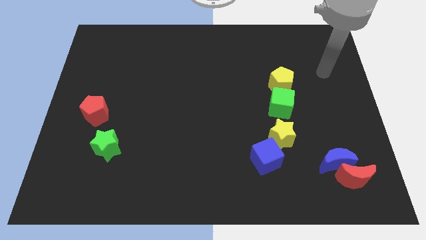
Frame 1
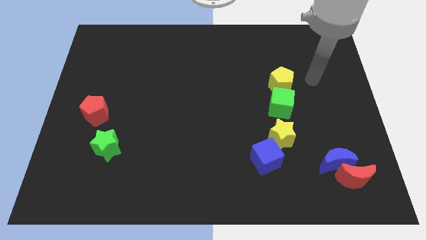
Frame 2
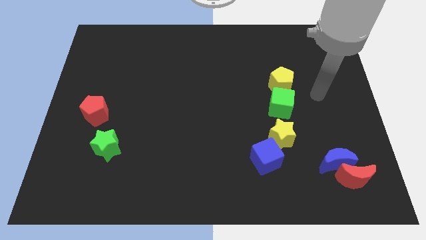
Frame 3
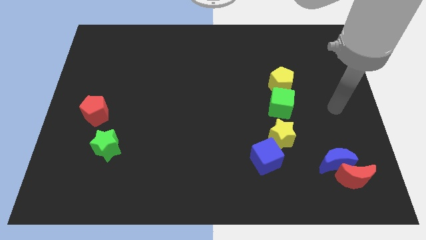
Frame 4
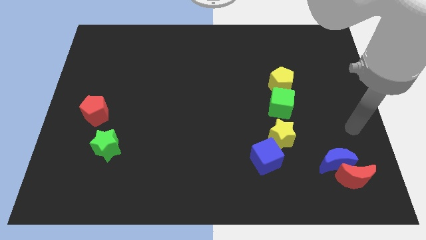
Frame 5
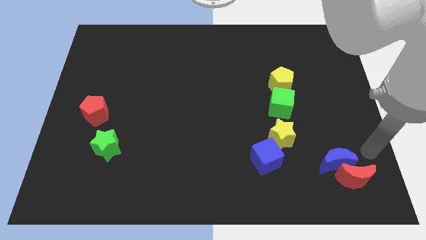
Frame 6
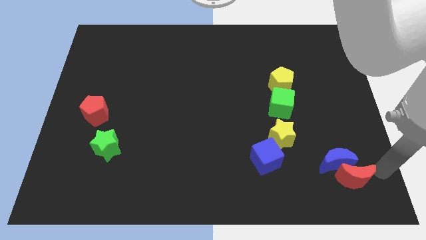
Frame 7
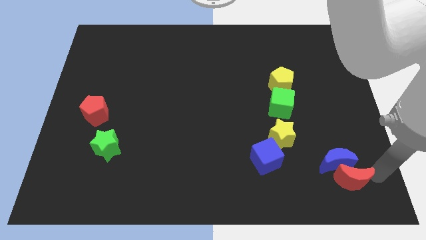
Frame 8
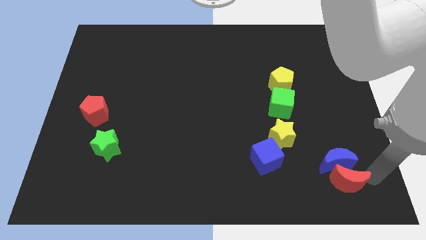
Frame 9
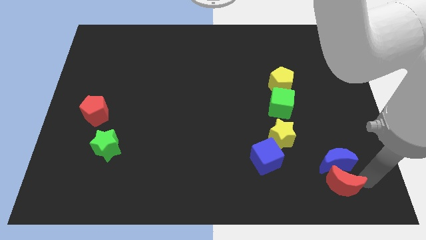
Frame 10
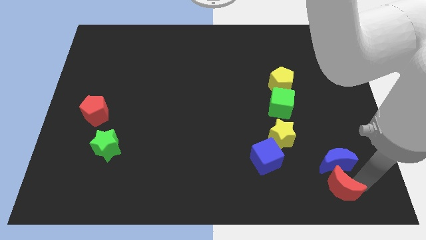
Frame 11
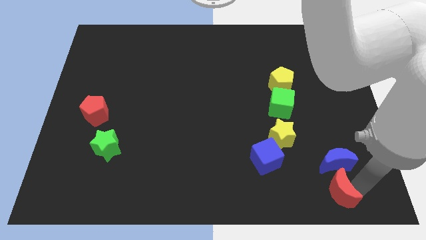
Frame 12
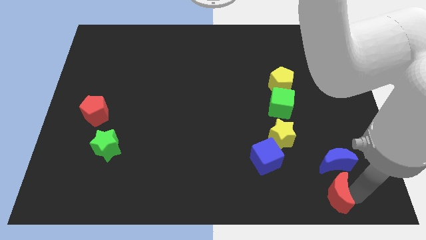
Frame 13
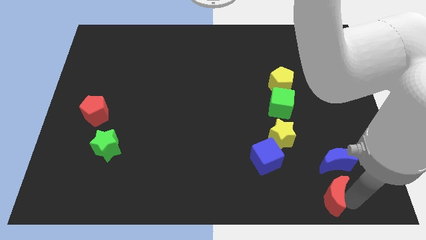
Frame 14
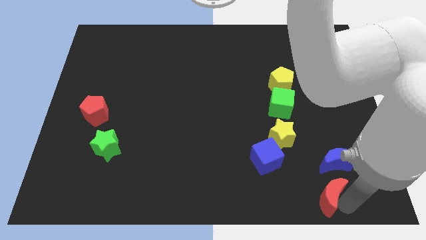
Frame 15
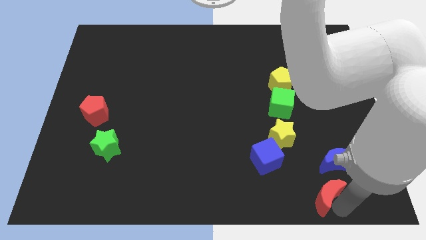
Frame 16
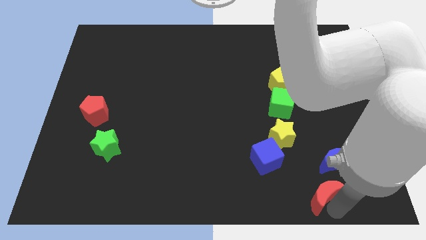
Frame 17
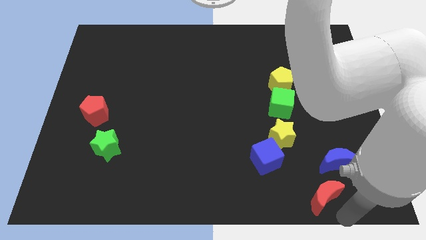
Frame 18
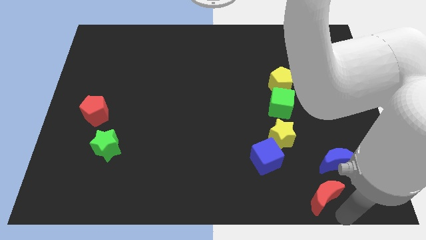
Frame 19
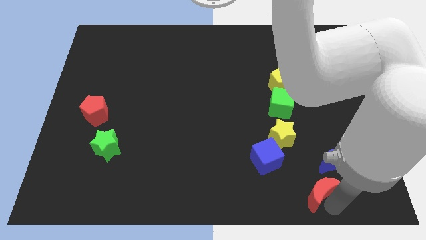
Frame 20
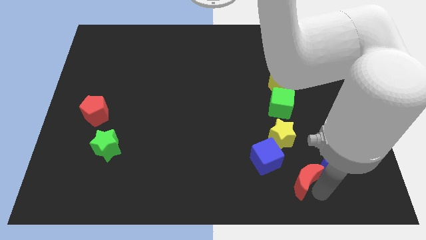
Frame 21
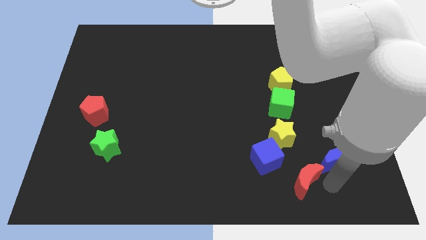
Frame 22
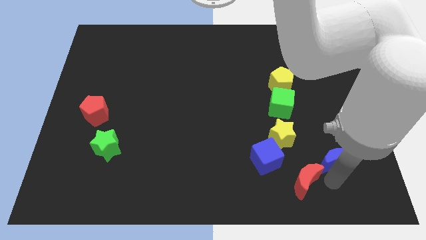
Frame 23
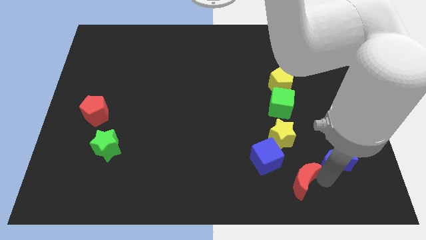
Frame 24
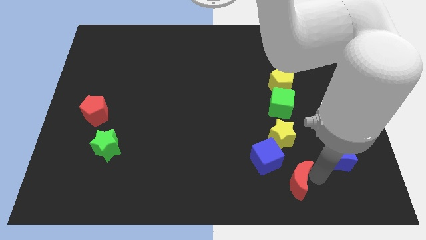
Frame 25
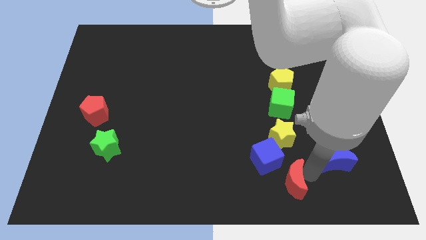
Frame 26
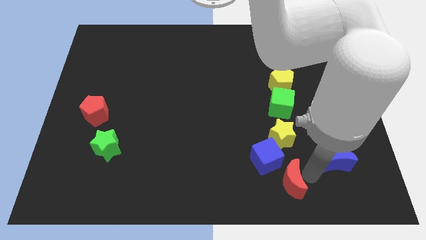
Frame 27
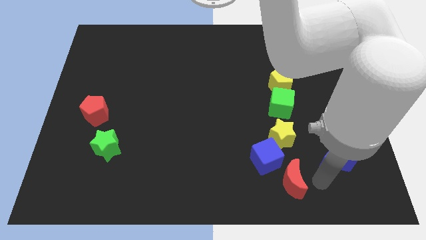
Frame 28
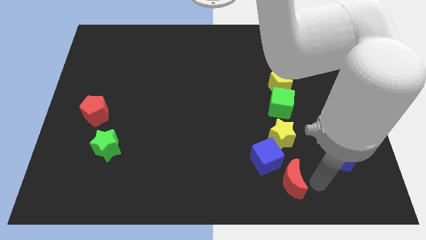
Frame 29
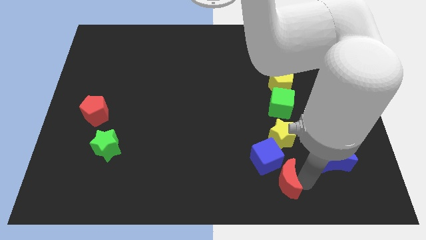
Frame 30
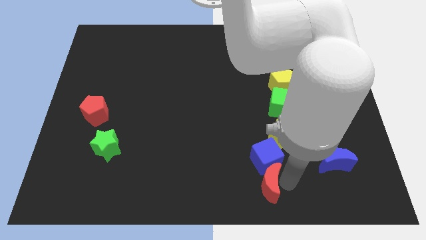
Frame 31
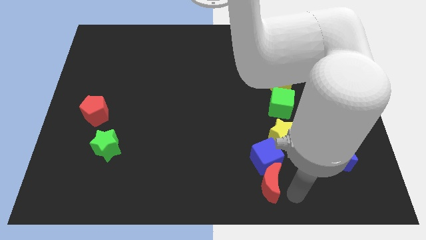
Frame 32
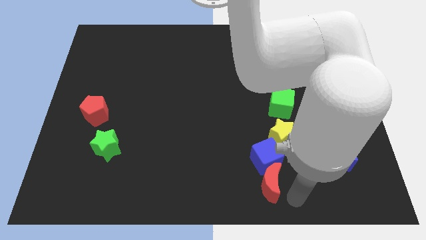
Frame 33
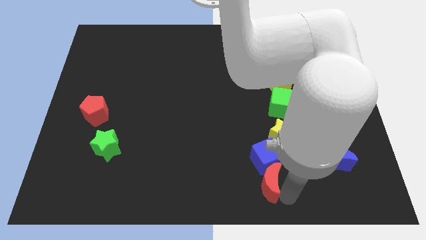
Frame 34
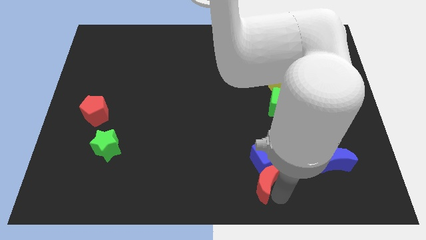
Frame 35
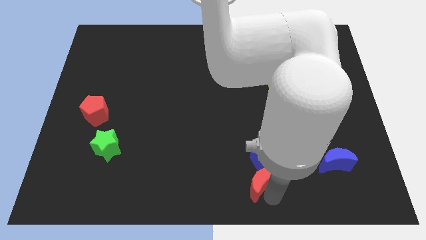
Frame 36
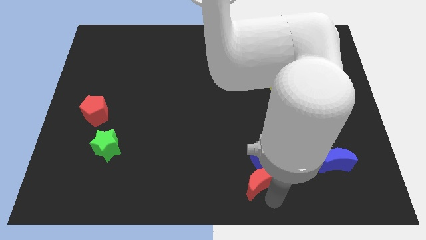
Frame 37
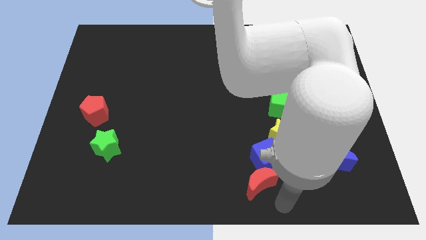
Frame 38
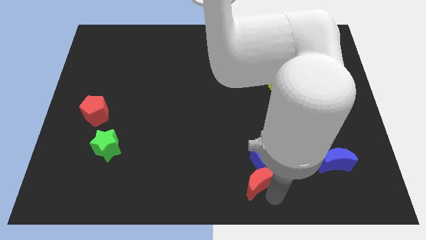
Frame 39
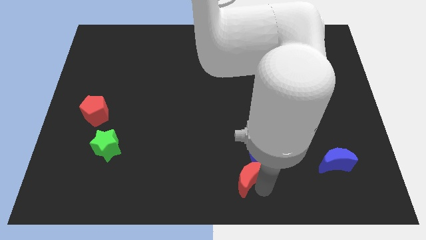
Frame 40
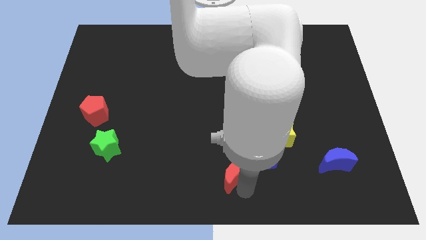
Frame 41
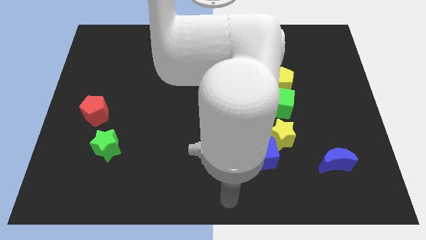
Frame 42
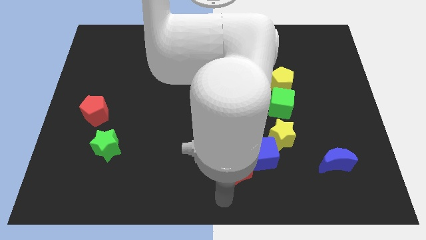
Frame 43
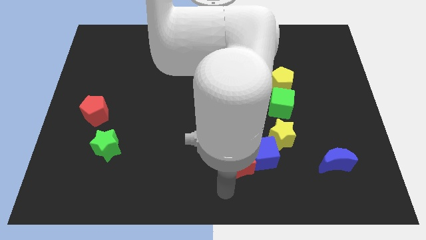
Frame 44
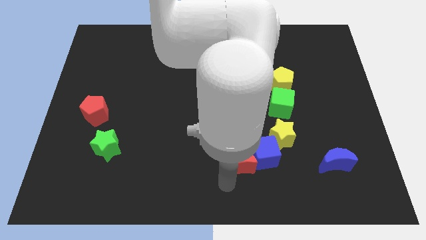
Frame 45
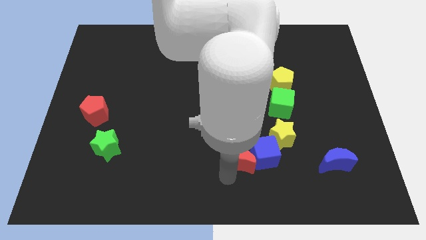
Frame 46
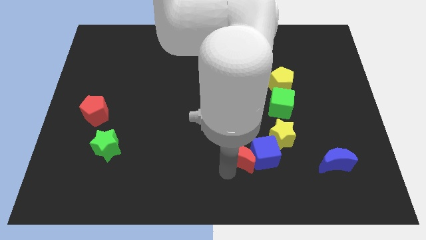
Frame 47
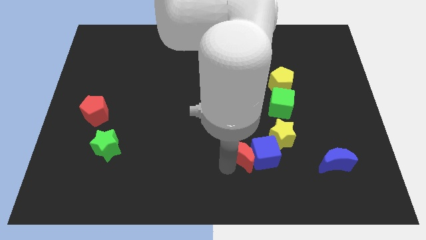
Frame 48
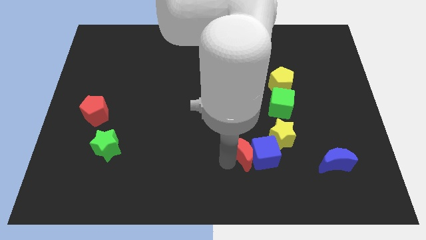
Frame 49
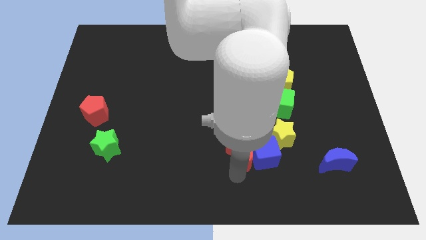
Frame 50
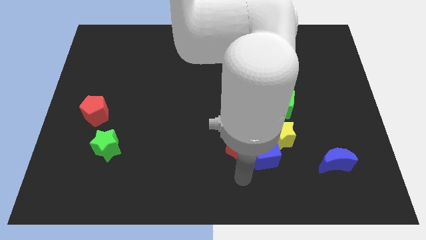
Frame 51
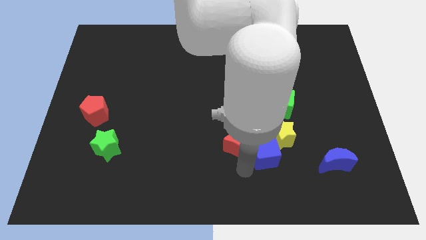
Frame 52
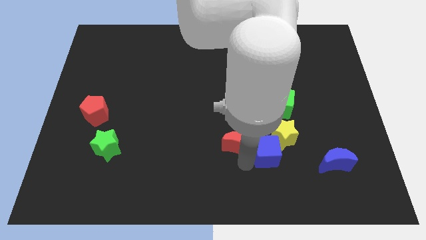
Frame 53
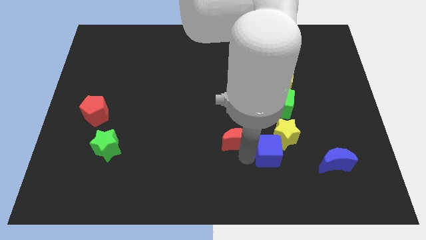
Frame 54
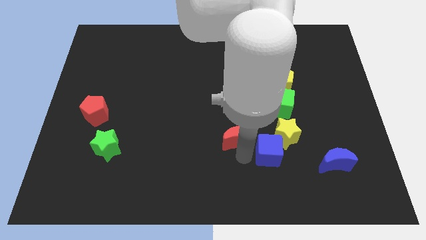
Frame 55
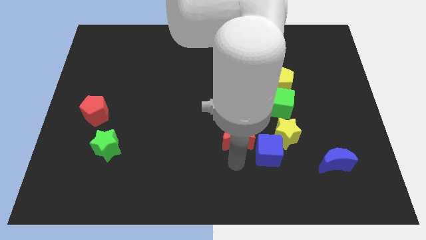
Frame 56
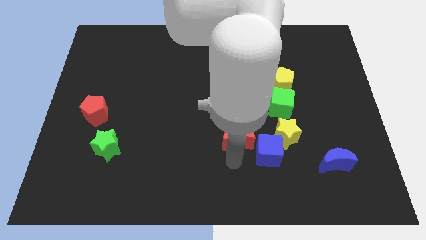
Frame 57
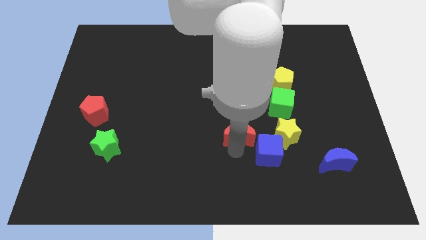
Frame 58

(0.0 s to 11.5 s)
move the red moon diagonally up and to the left

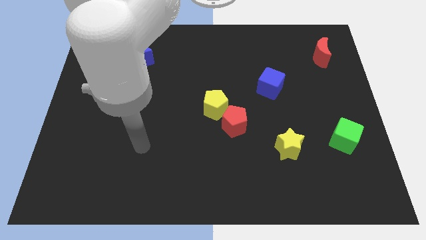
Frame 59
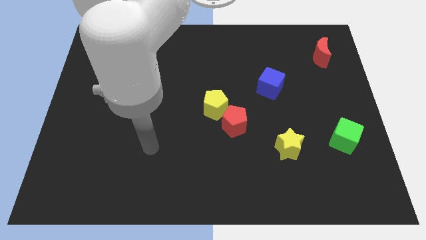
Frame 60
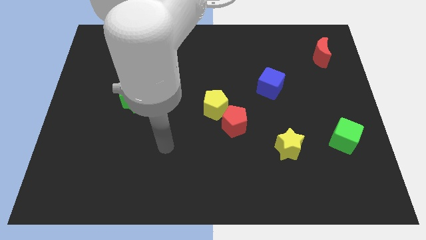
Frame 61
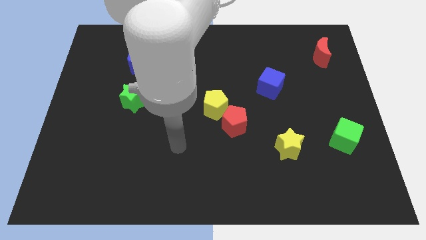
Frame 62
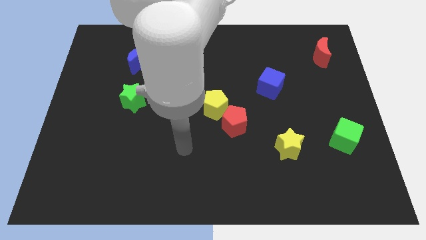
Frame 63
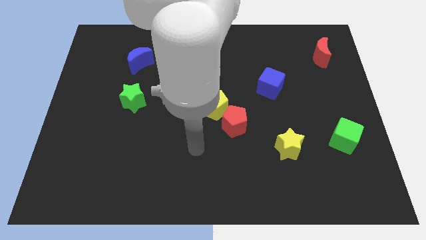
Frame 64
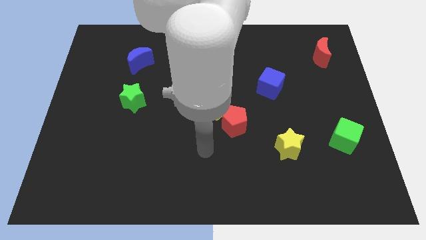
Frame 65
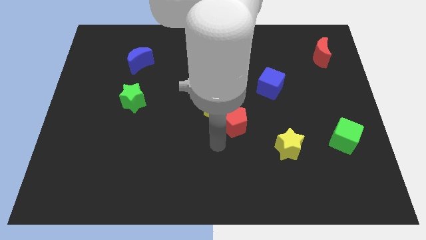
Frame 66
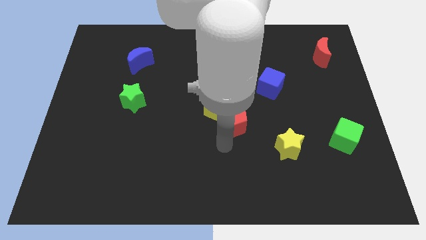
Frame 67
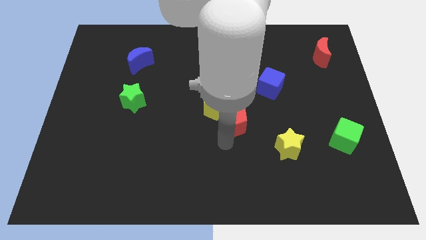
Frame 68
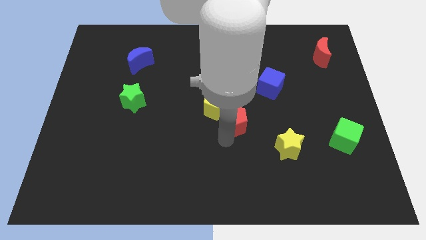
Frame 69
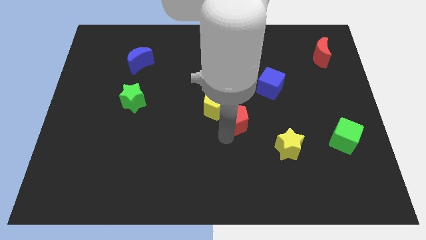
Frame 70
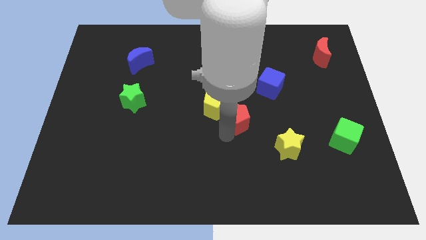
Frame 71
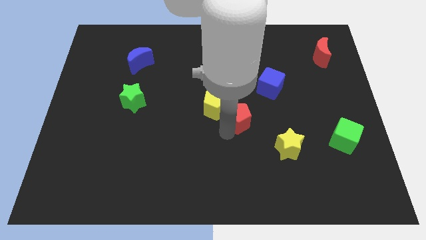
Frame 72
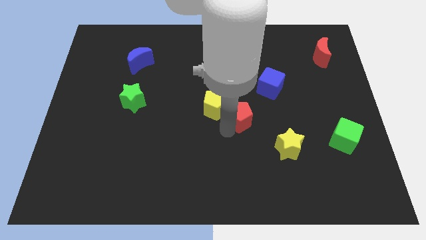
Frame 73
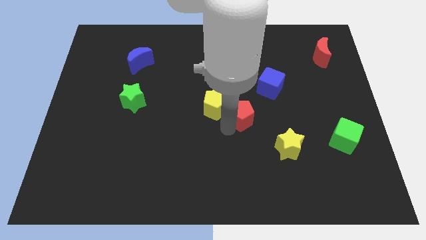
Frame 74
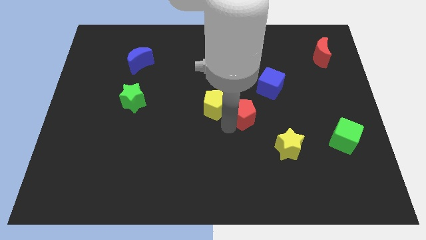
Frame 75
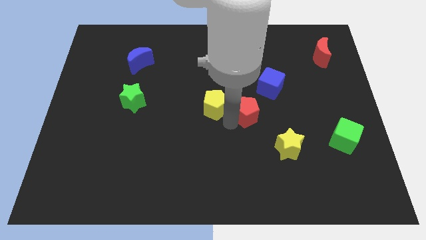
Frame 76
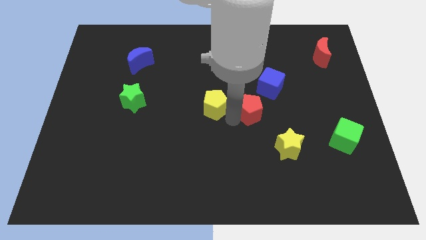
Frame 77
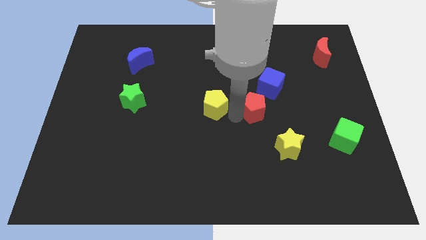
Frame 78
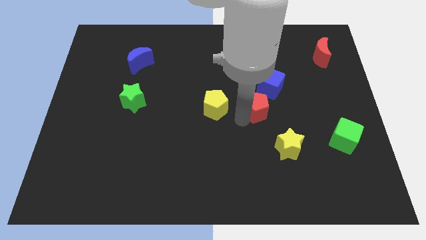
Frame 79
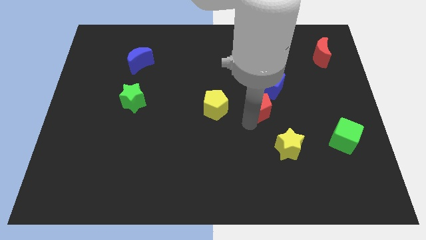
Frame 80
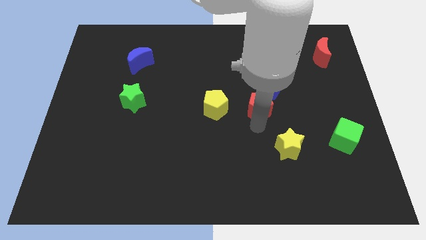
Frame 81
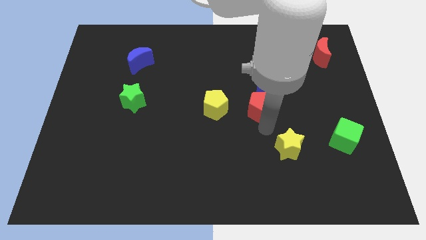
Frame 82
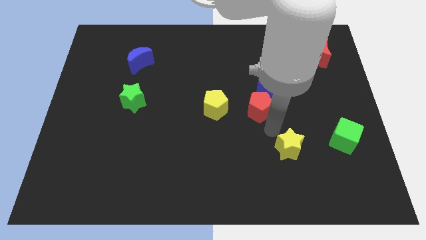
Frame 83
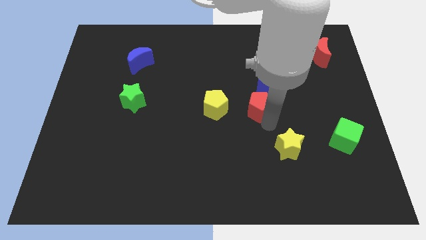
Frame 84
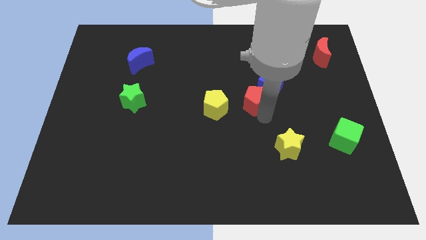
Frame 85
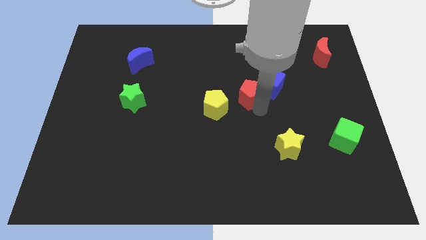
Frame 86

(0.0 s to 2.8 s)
push the red pentagon upwards a bit
